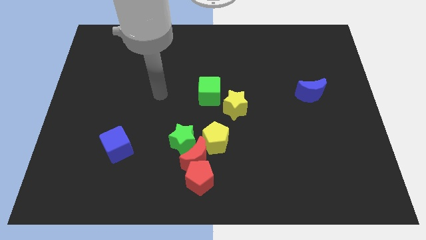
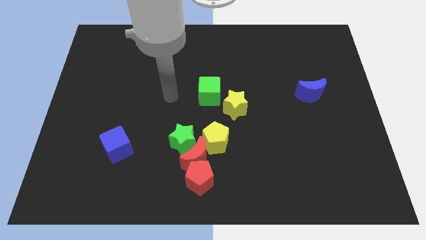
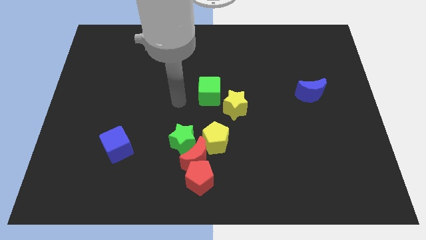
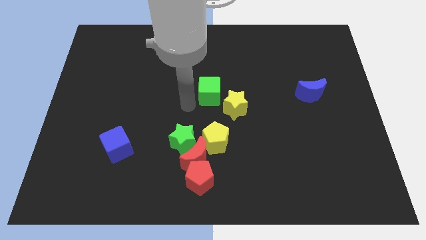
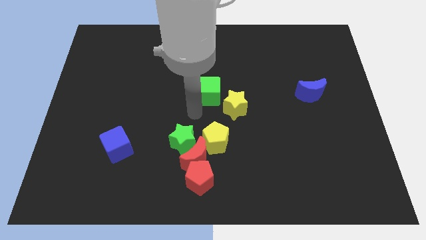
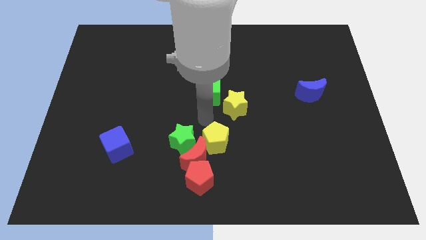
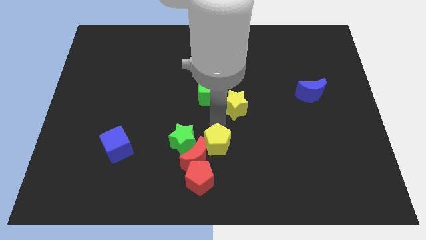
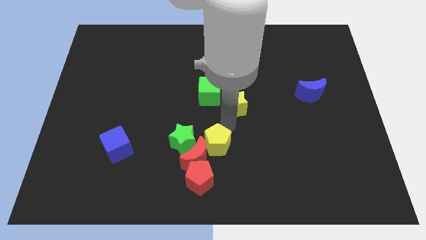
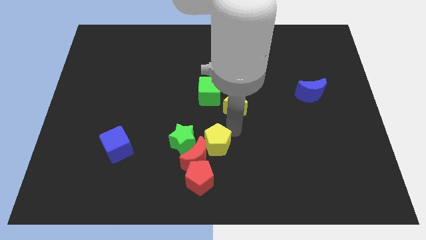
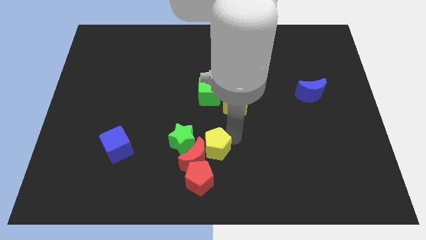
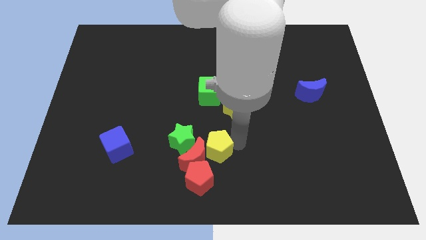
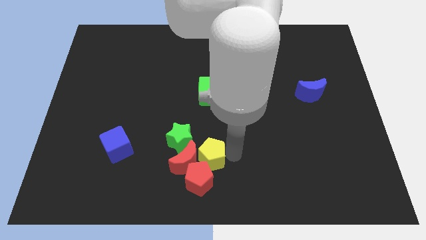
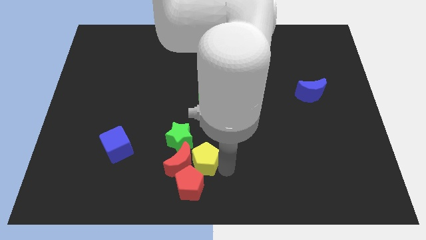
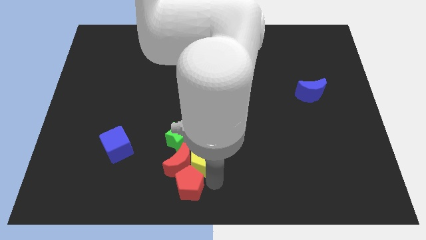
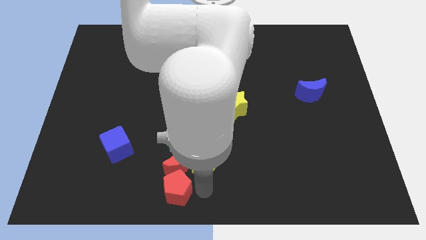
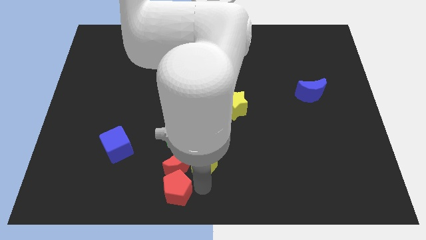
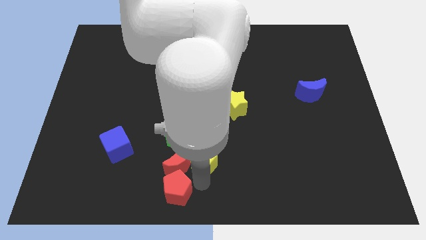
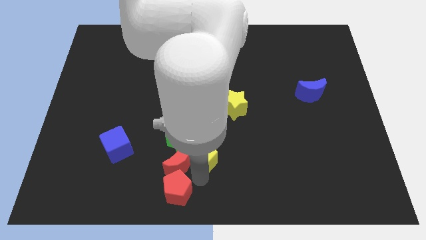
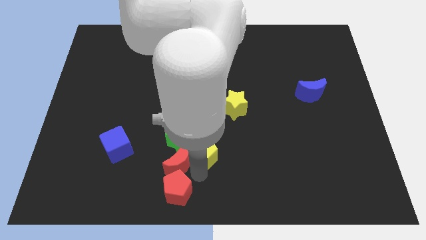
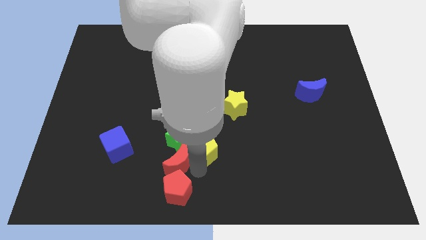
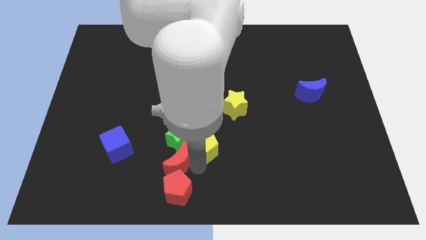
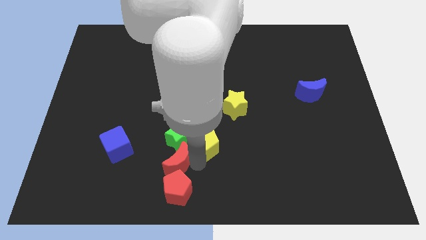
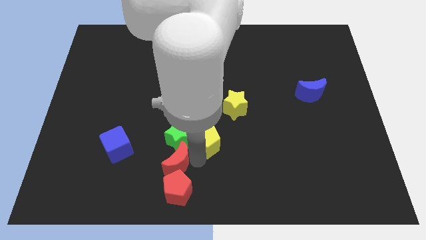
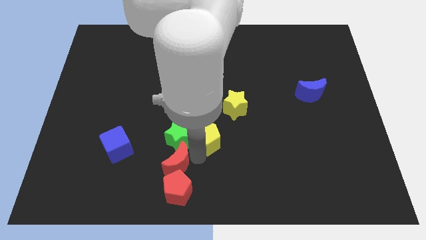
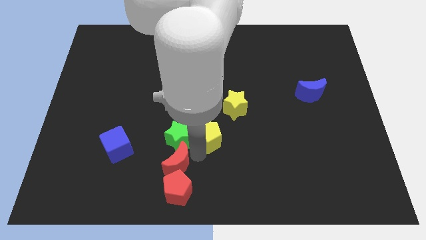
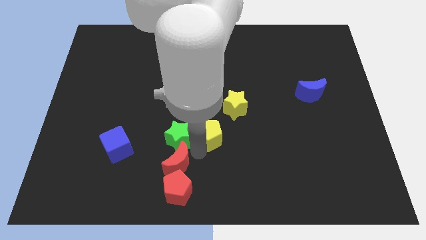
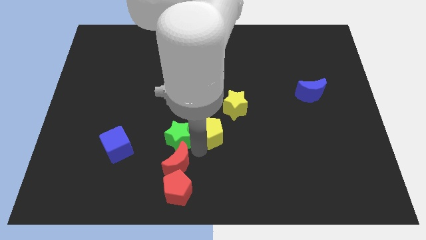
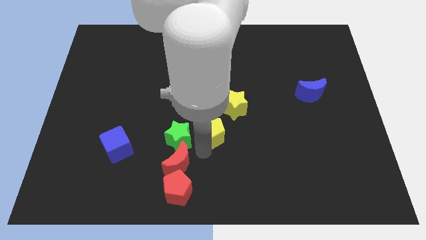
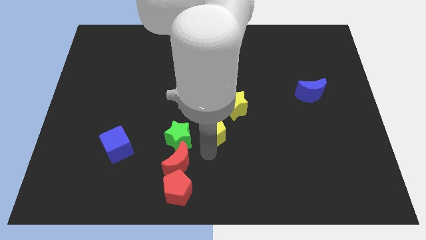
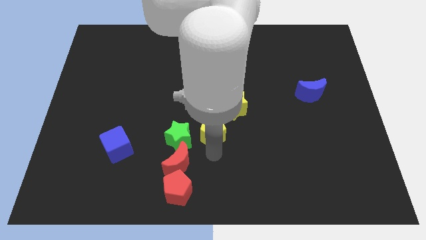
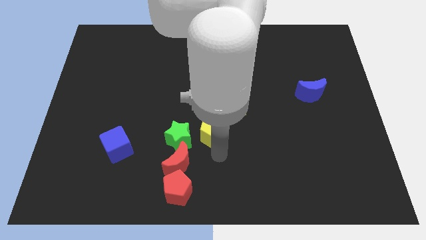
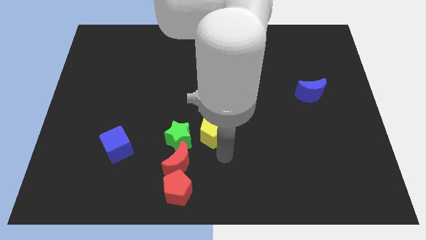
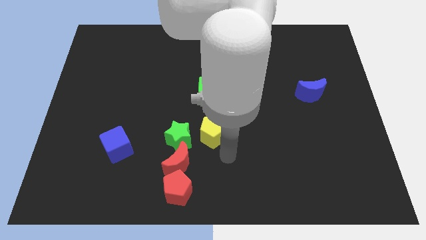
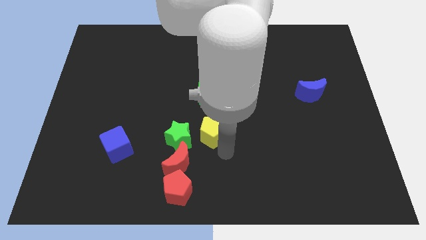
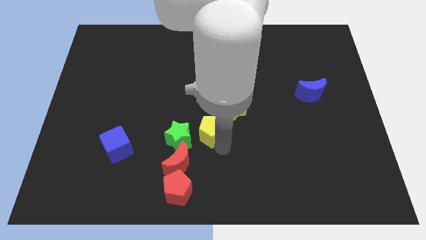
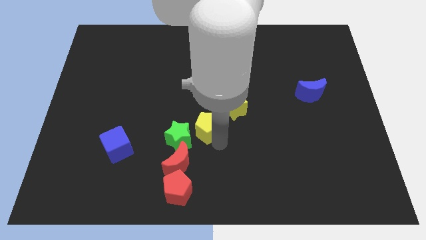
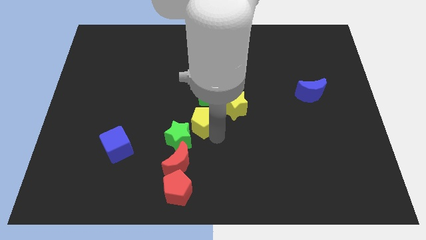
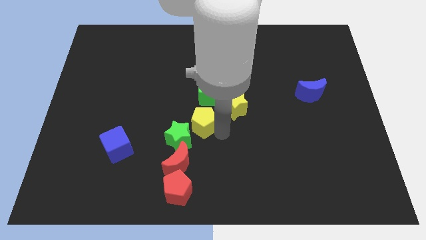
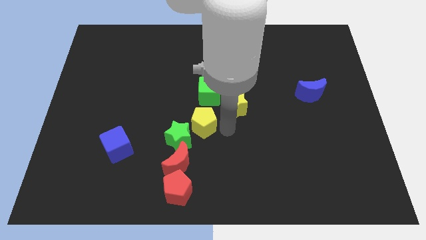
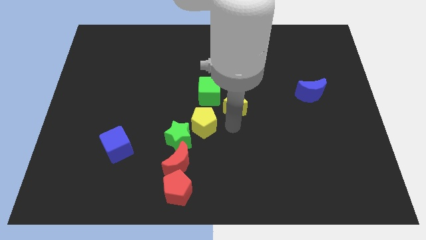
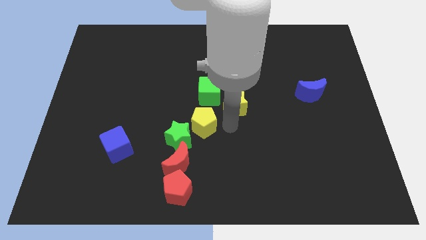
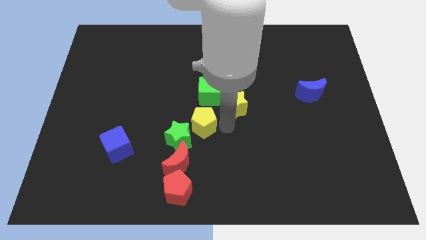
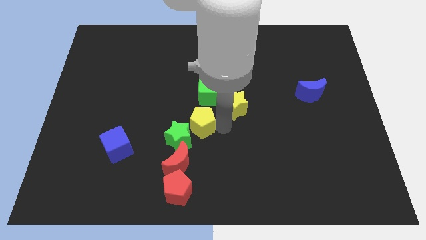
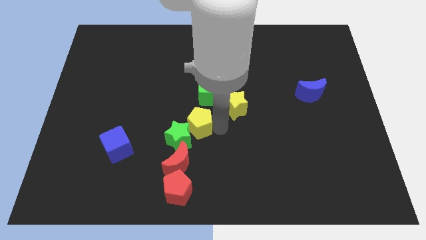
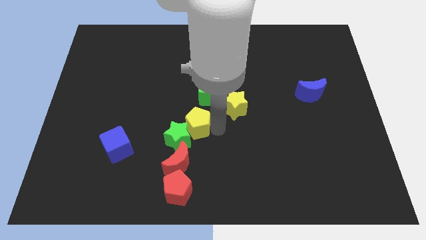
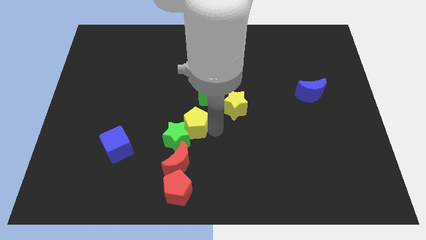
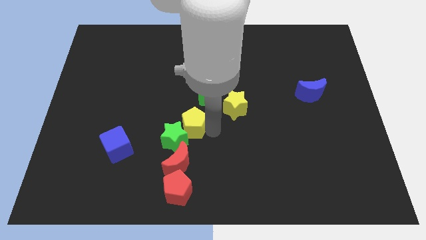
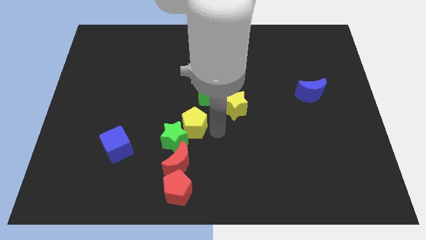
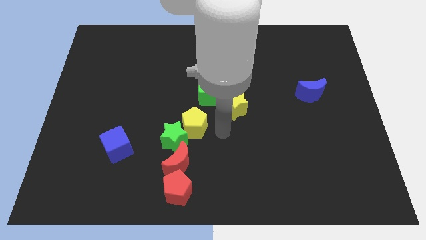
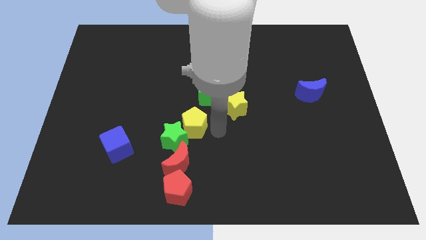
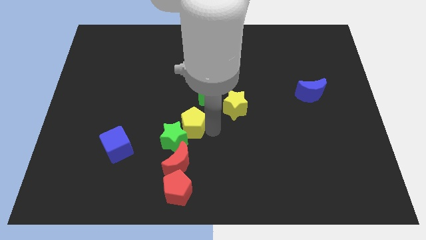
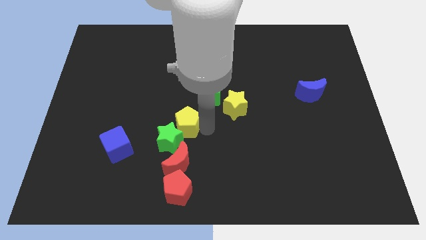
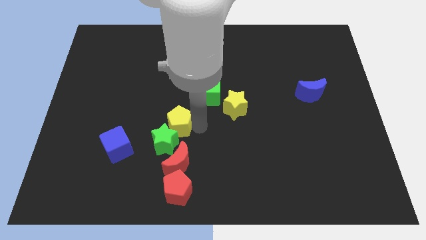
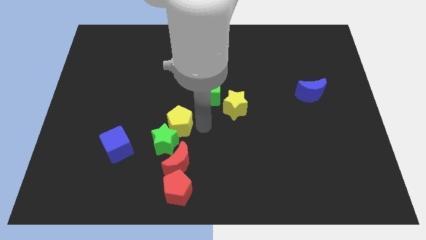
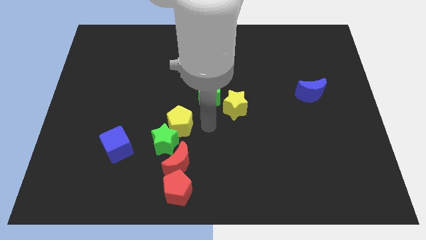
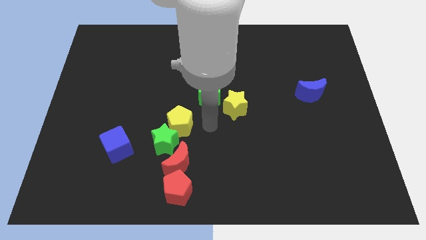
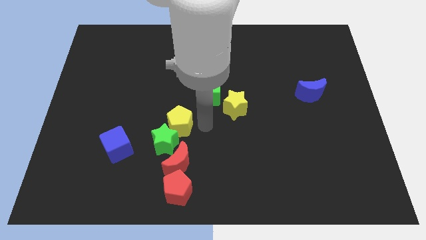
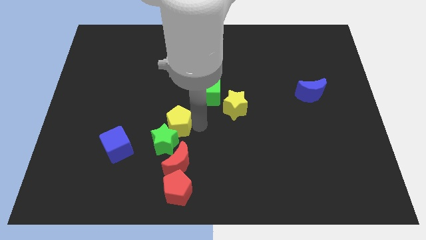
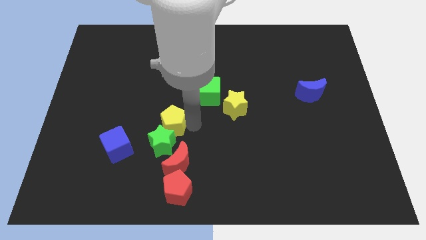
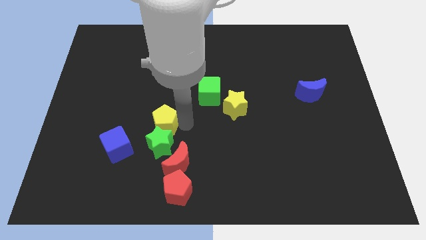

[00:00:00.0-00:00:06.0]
push the yellow pentagon to the top right side of the blue cube

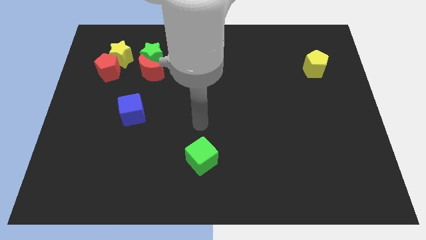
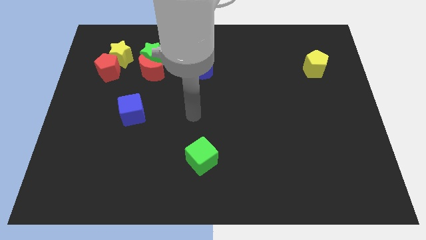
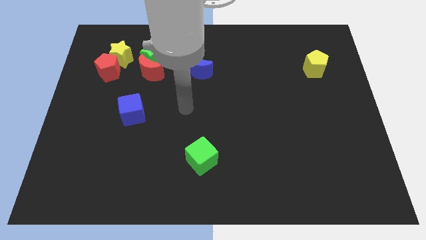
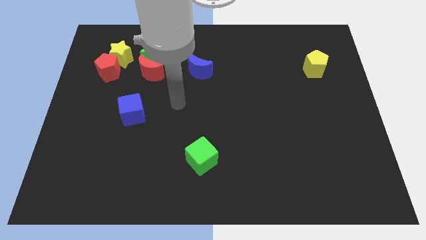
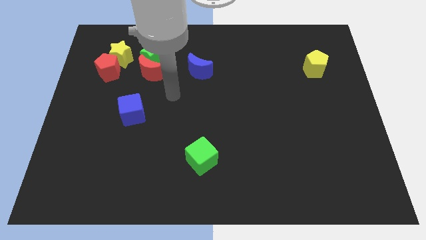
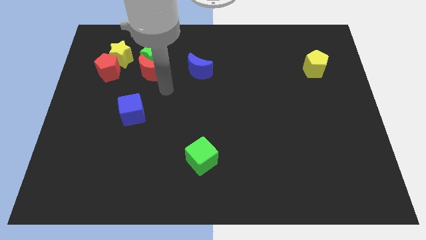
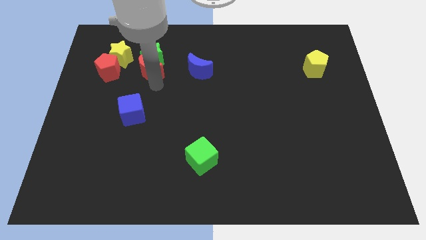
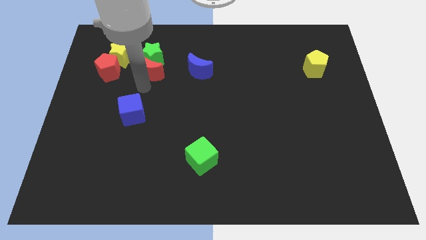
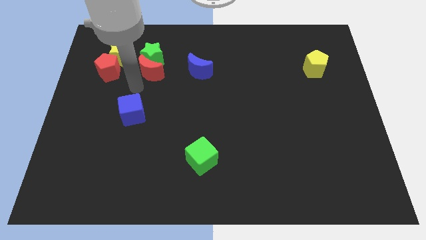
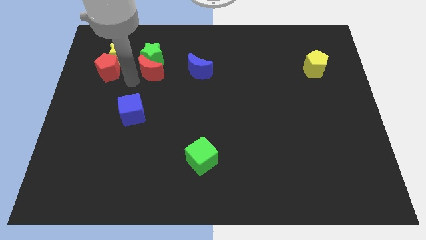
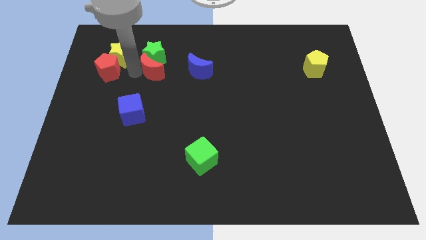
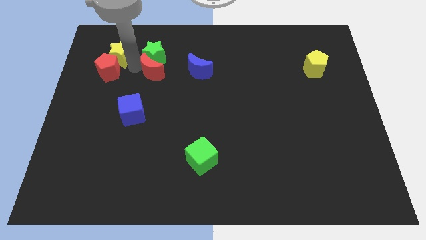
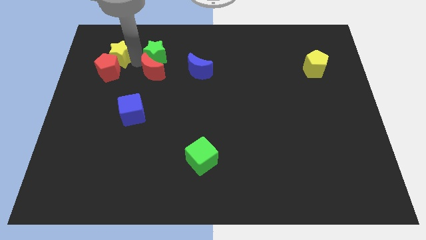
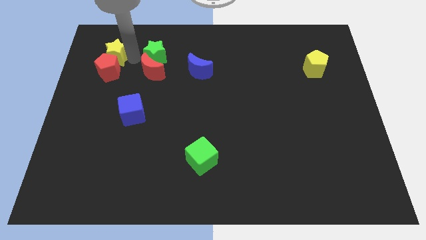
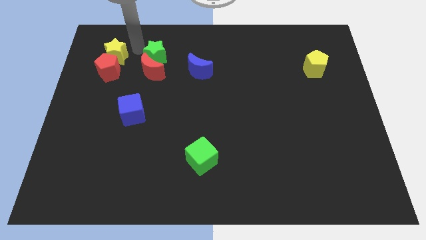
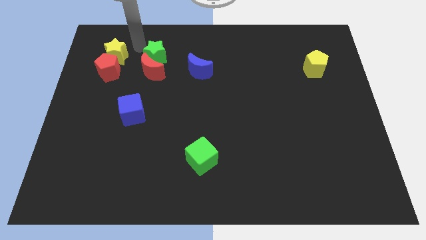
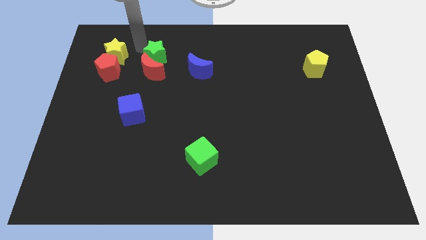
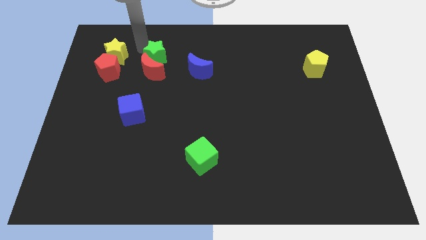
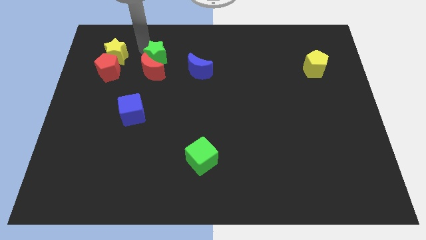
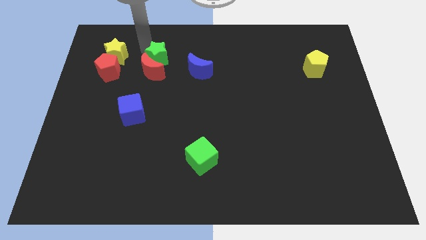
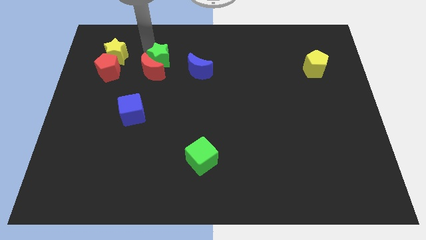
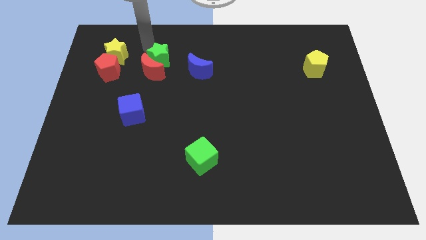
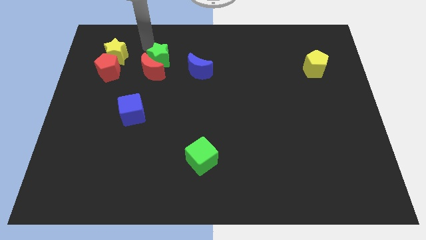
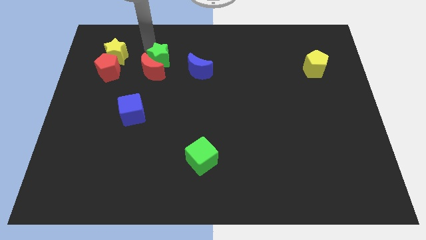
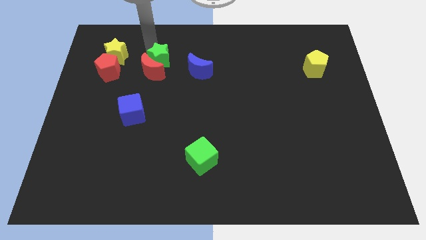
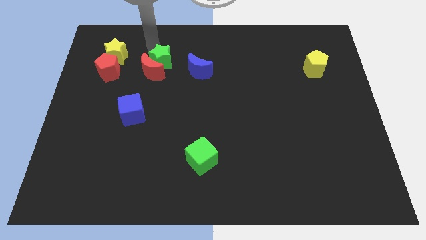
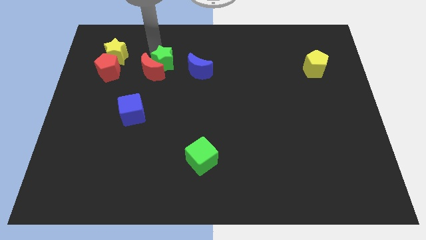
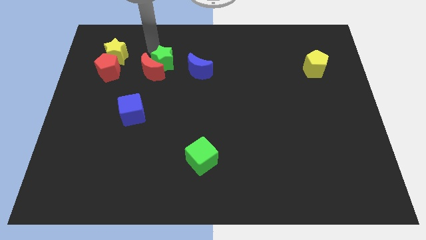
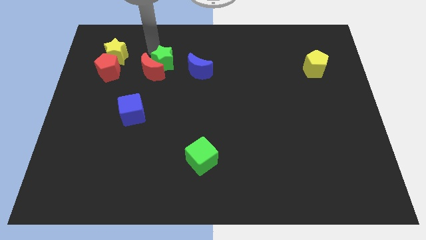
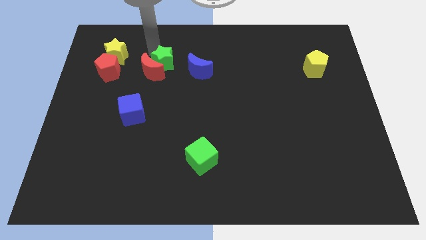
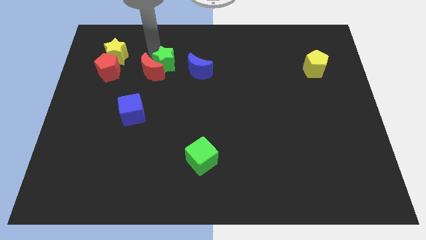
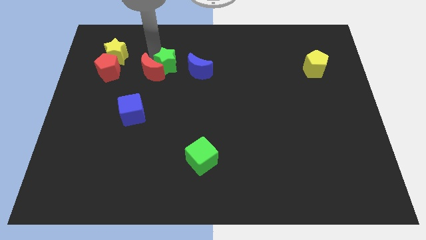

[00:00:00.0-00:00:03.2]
slide the green star to the bottom right side of the red moon
